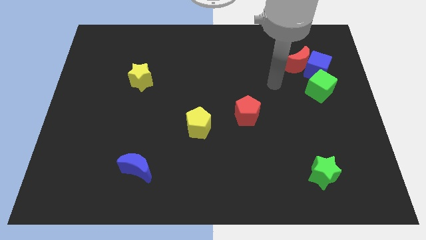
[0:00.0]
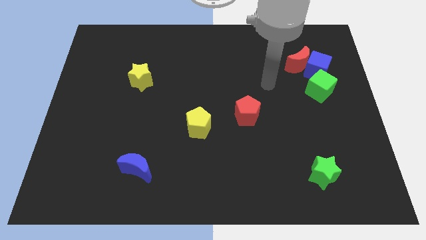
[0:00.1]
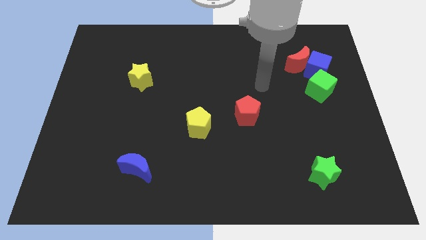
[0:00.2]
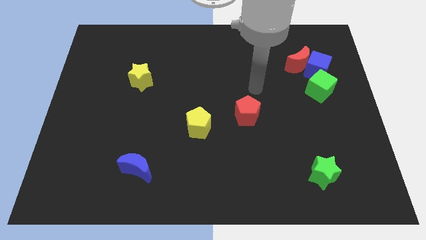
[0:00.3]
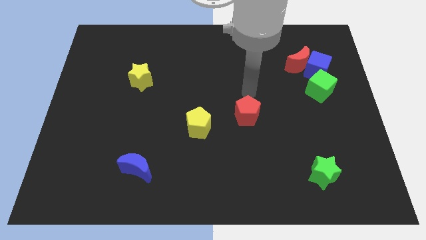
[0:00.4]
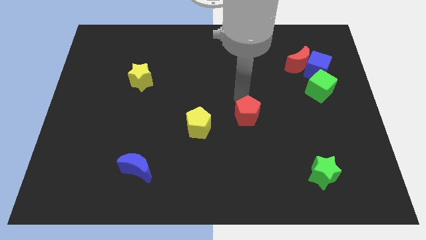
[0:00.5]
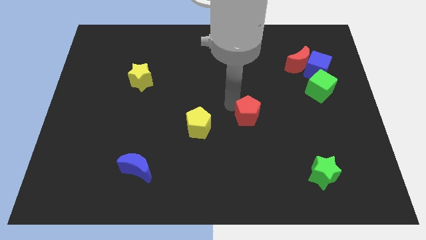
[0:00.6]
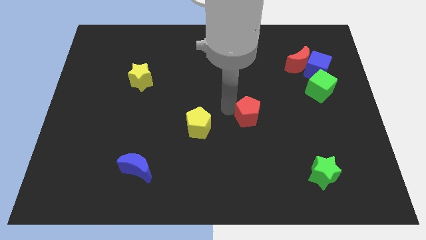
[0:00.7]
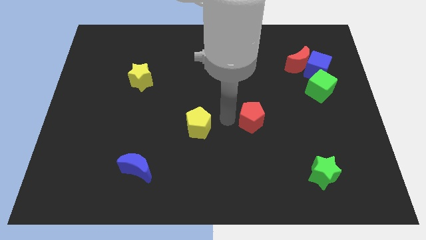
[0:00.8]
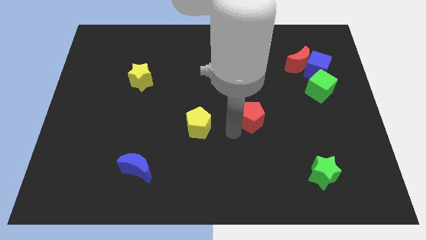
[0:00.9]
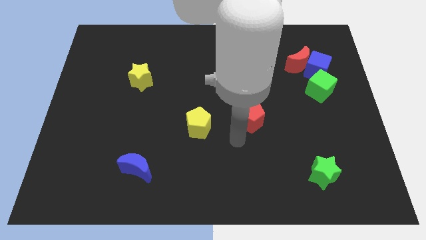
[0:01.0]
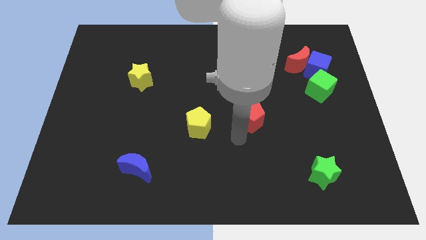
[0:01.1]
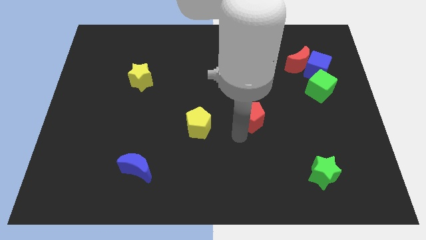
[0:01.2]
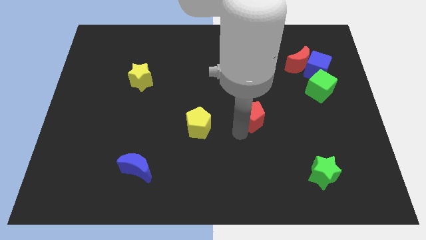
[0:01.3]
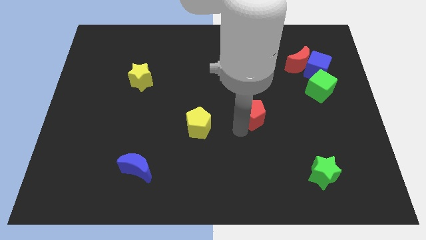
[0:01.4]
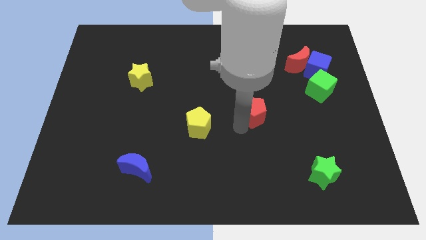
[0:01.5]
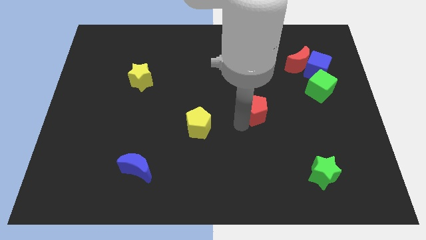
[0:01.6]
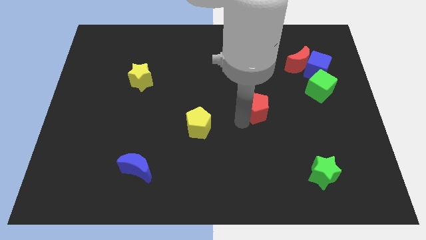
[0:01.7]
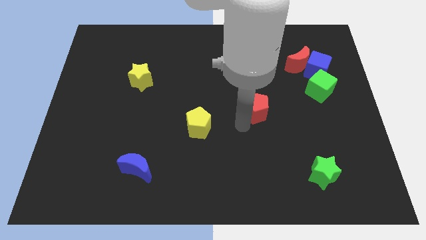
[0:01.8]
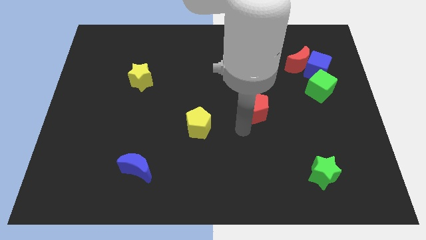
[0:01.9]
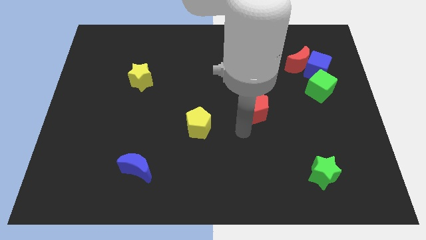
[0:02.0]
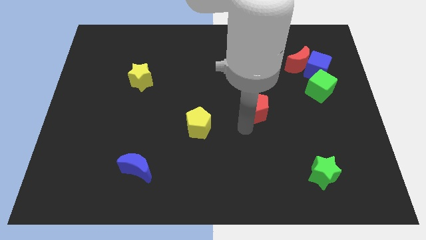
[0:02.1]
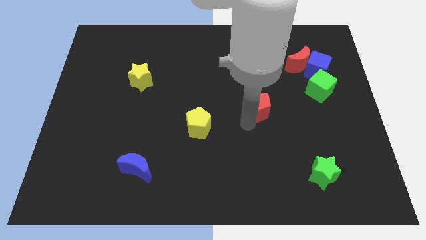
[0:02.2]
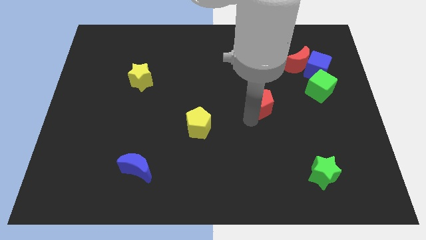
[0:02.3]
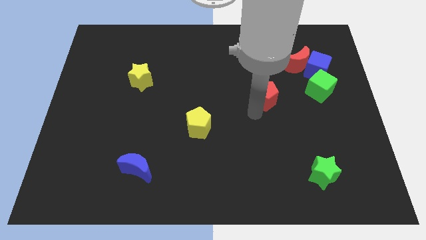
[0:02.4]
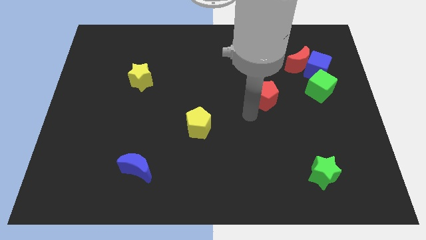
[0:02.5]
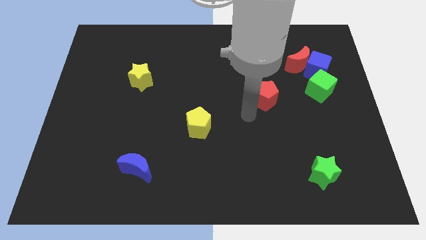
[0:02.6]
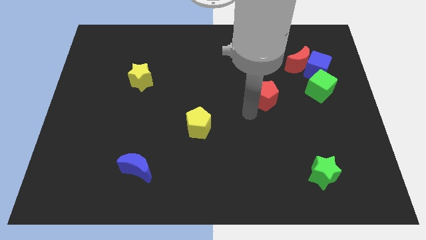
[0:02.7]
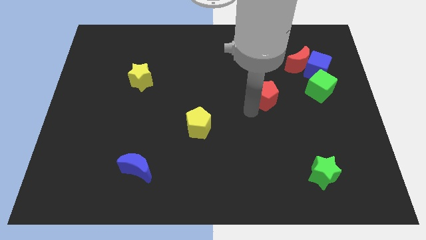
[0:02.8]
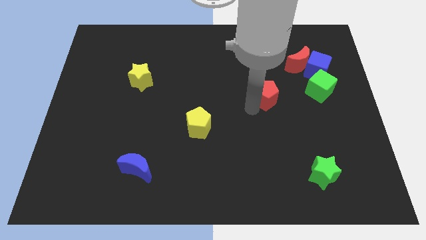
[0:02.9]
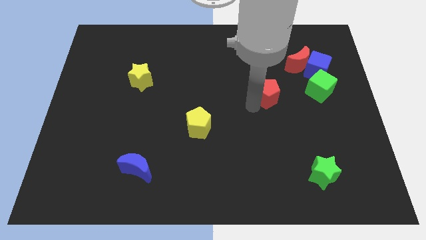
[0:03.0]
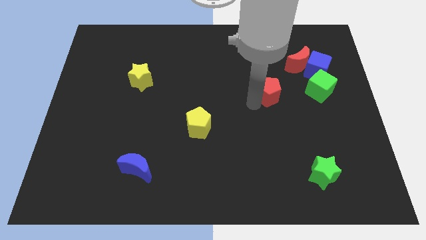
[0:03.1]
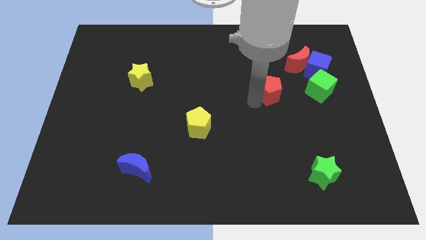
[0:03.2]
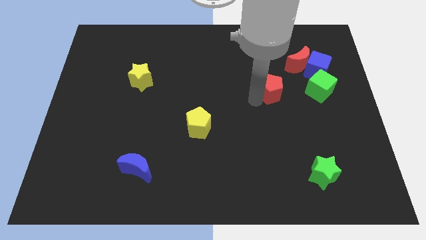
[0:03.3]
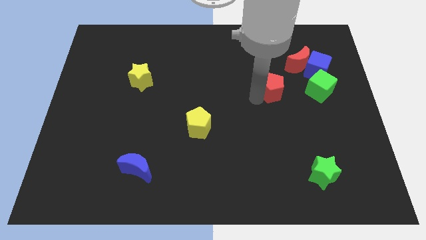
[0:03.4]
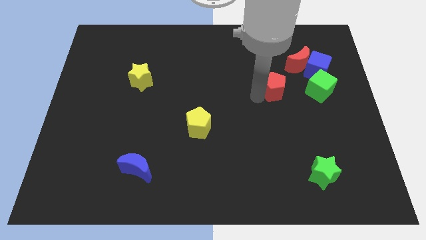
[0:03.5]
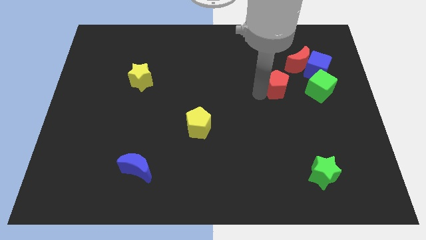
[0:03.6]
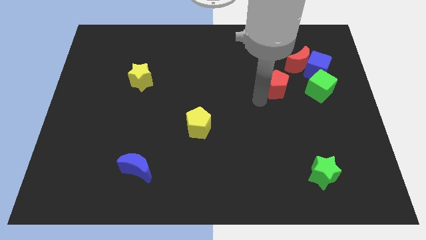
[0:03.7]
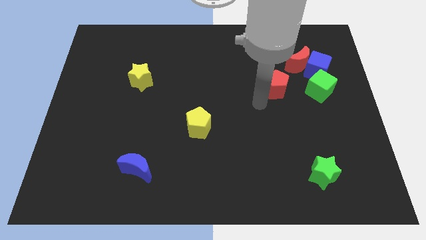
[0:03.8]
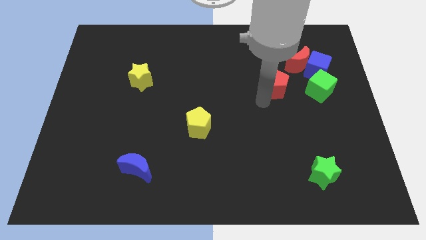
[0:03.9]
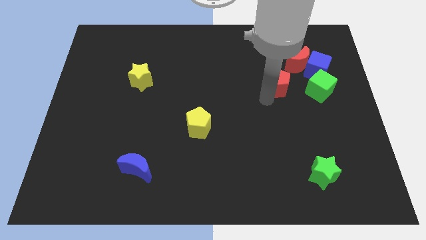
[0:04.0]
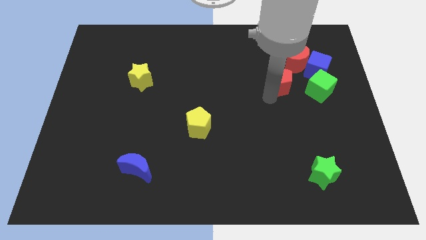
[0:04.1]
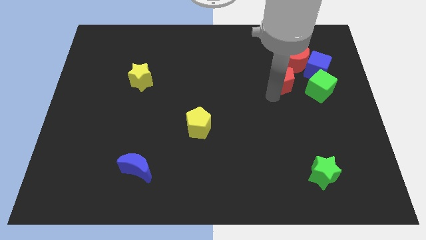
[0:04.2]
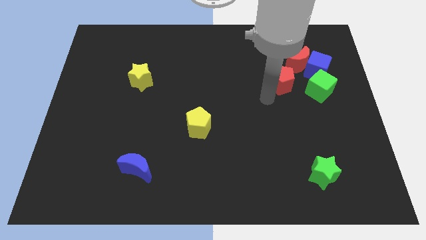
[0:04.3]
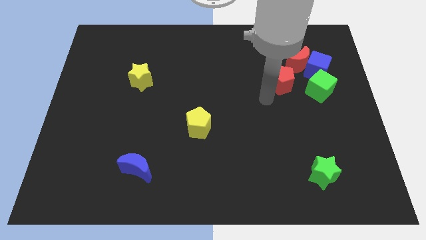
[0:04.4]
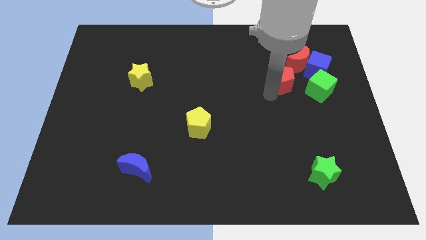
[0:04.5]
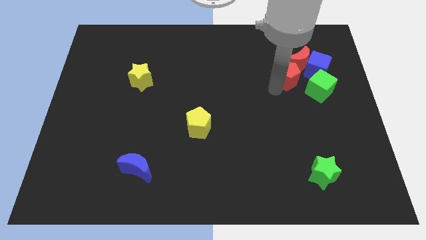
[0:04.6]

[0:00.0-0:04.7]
put the red pentagon towards the red moon

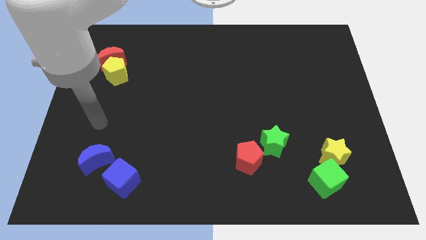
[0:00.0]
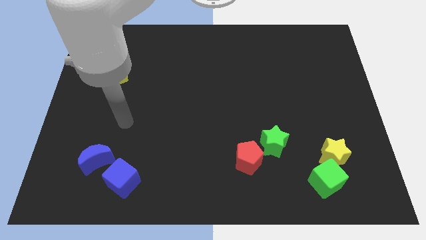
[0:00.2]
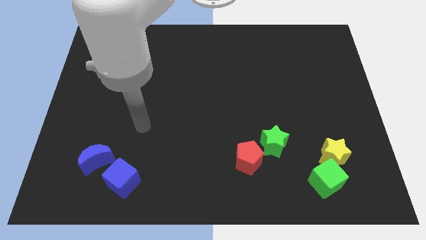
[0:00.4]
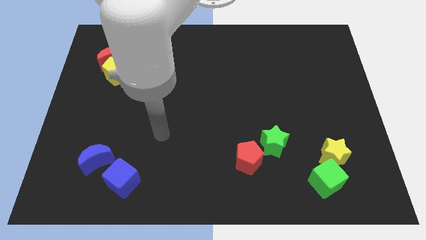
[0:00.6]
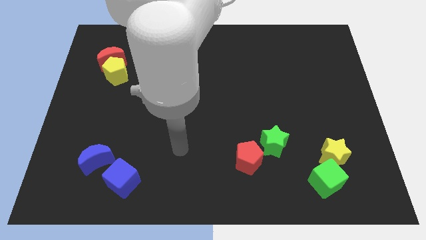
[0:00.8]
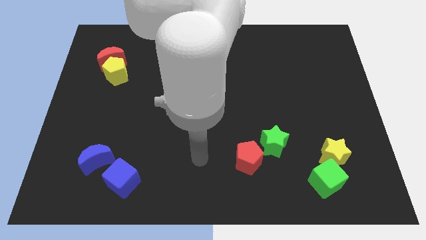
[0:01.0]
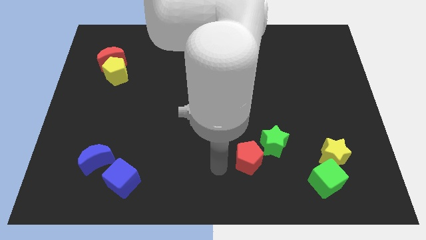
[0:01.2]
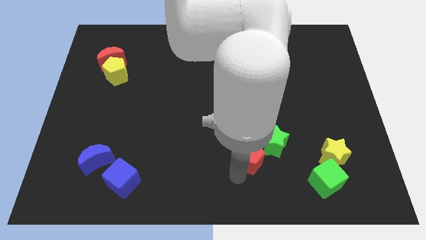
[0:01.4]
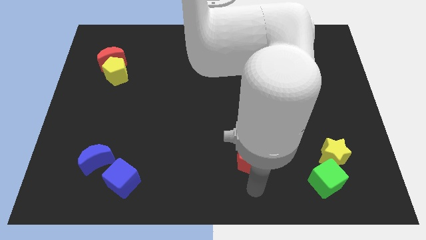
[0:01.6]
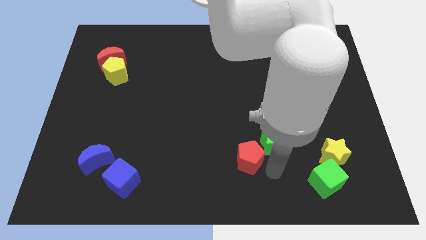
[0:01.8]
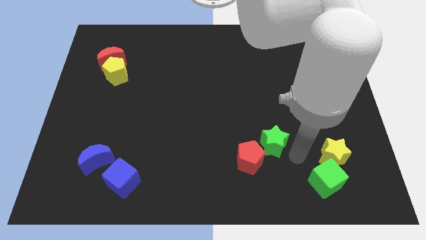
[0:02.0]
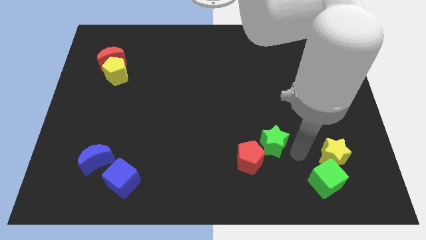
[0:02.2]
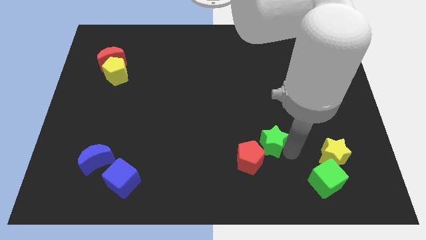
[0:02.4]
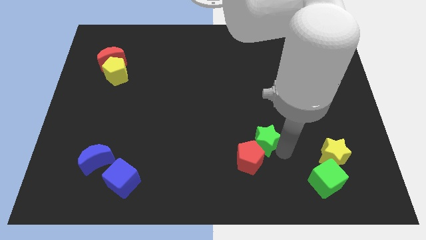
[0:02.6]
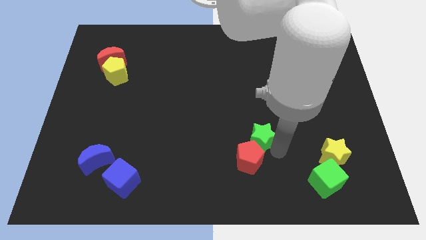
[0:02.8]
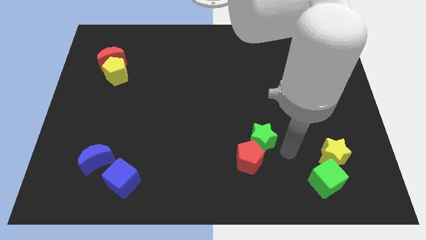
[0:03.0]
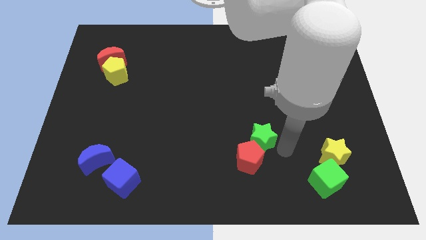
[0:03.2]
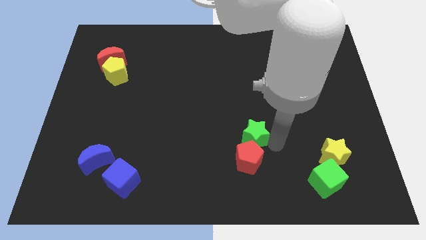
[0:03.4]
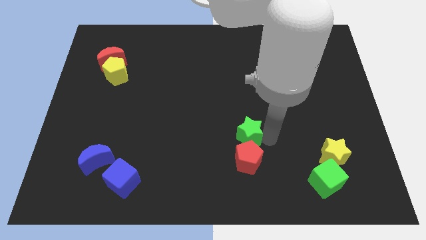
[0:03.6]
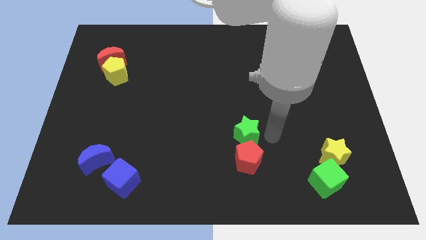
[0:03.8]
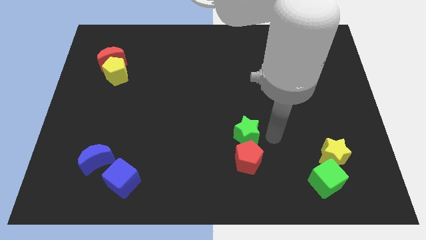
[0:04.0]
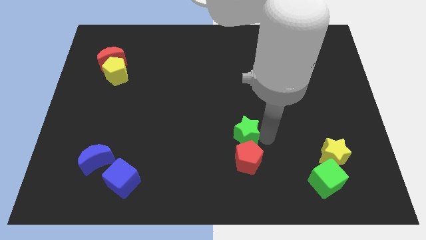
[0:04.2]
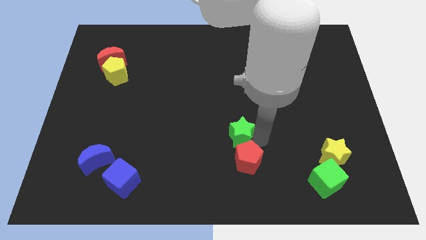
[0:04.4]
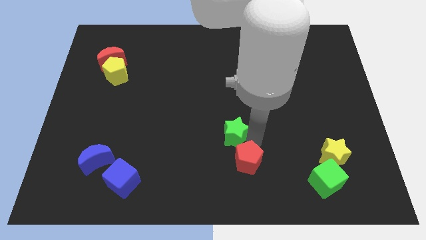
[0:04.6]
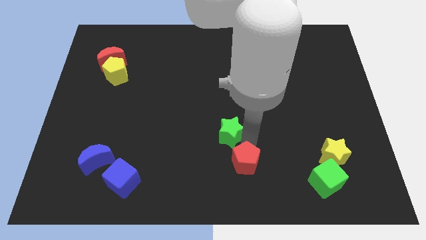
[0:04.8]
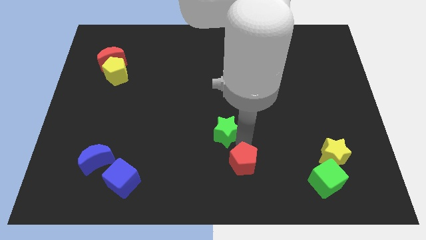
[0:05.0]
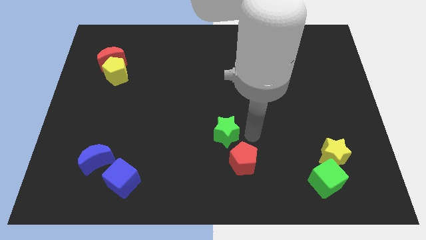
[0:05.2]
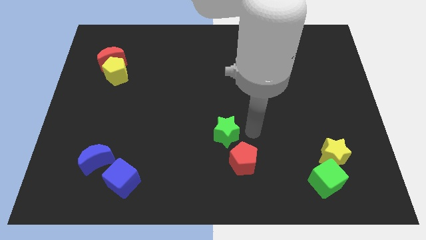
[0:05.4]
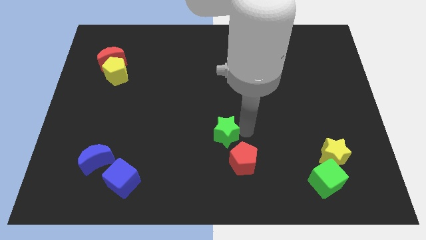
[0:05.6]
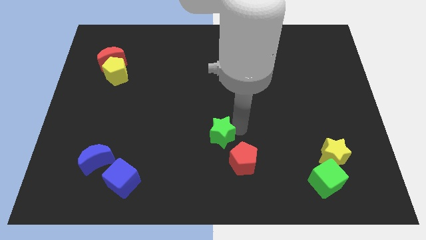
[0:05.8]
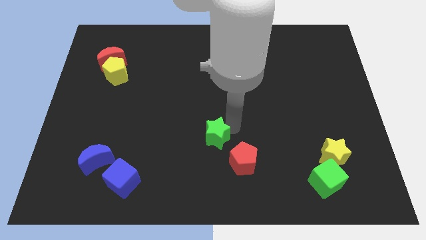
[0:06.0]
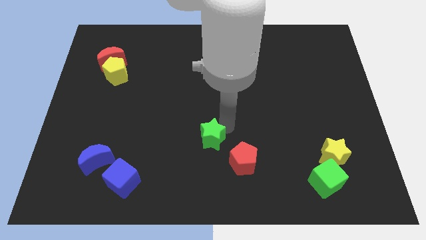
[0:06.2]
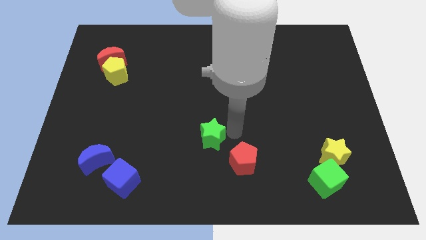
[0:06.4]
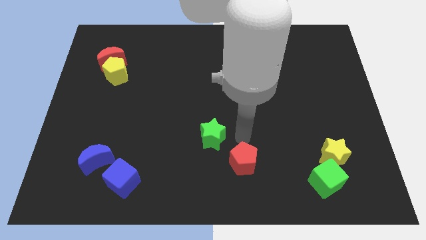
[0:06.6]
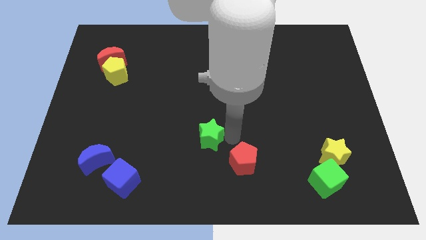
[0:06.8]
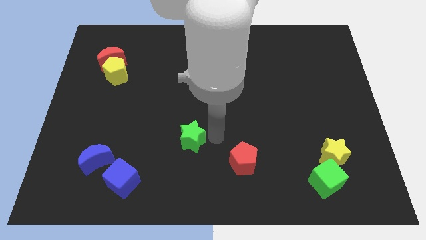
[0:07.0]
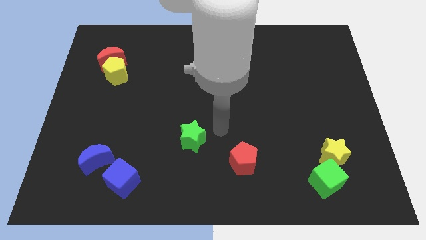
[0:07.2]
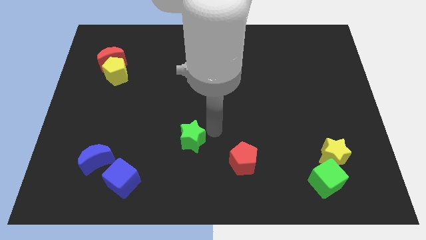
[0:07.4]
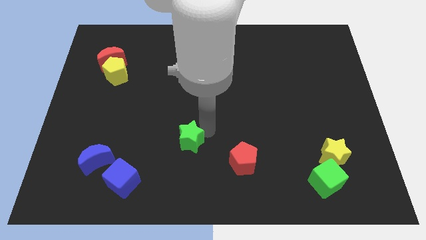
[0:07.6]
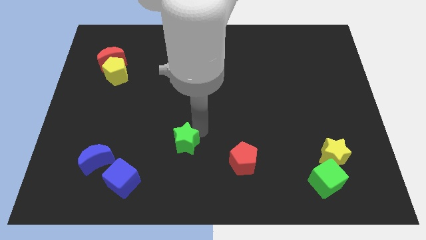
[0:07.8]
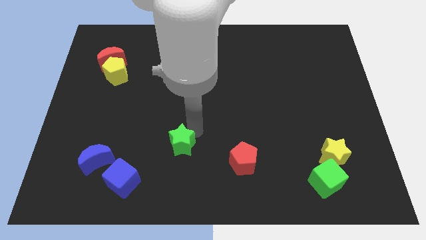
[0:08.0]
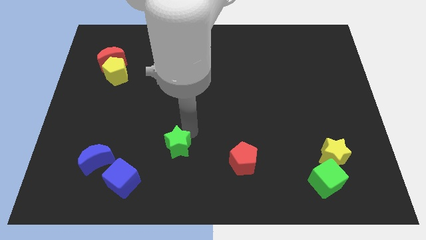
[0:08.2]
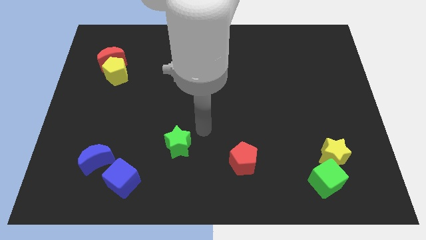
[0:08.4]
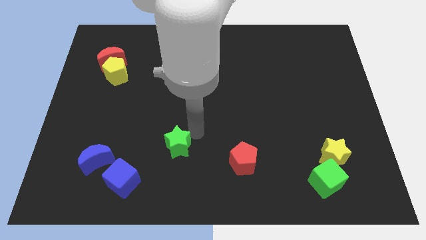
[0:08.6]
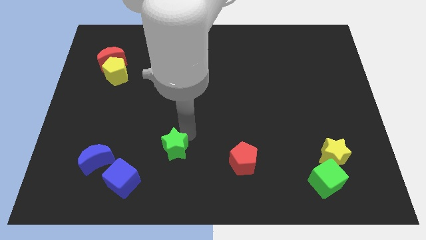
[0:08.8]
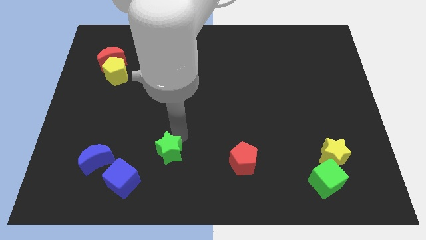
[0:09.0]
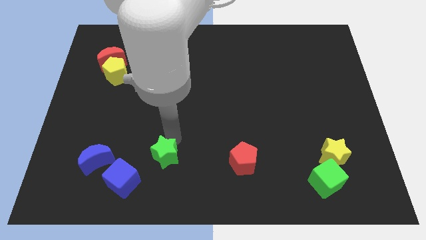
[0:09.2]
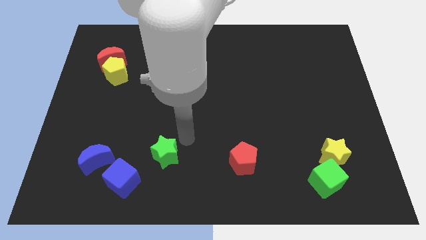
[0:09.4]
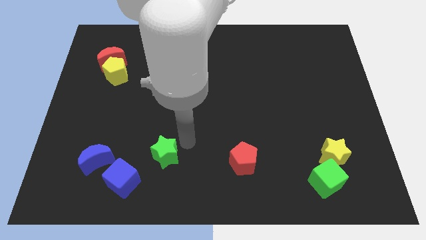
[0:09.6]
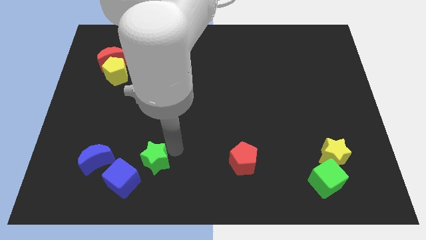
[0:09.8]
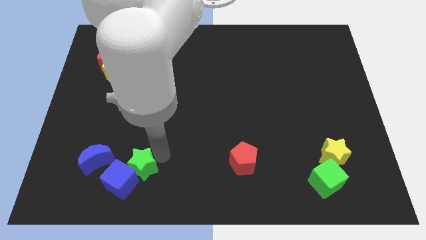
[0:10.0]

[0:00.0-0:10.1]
slide the green star close to the blue cube
